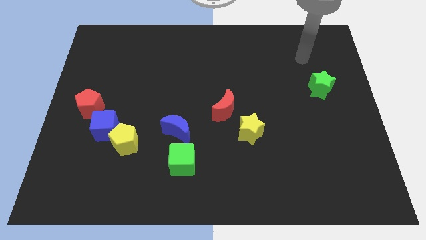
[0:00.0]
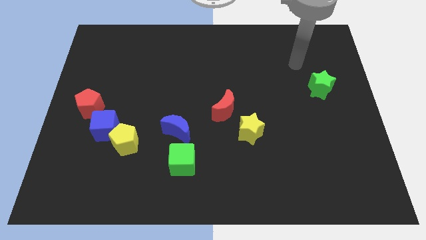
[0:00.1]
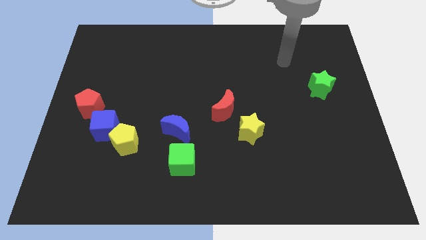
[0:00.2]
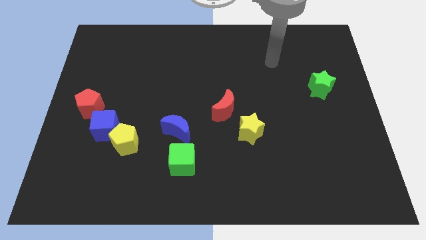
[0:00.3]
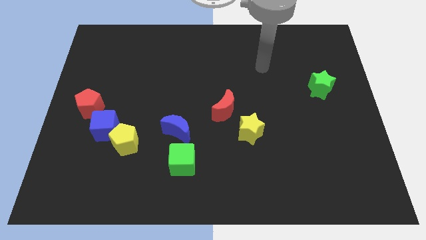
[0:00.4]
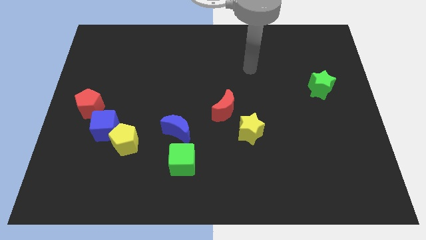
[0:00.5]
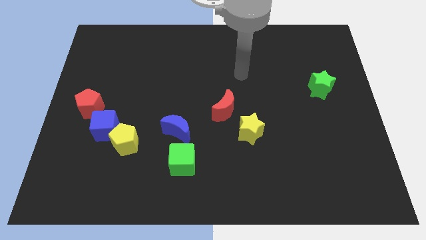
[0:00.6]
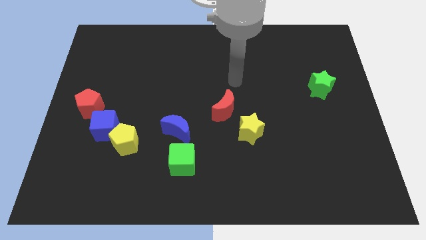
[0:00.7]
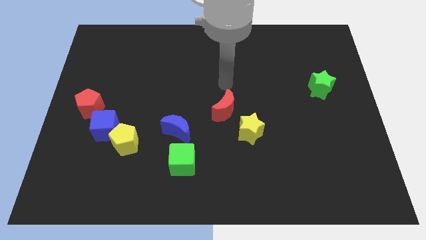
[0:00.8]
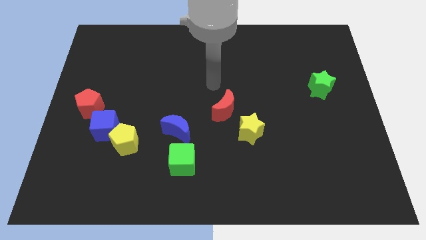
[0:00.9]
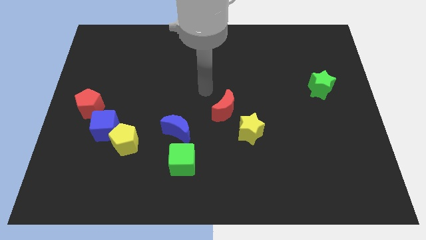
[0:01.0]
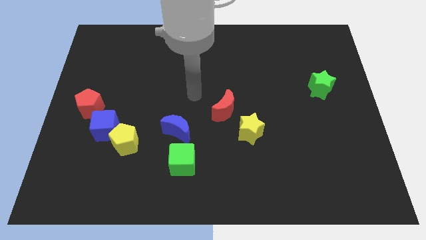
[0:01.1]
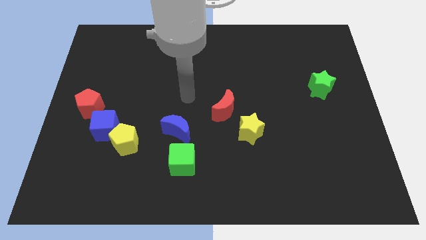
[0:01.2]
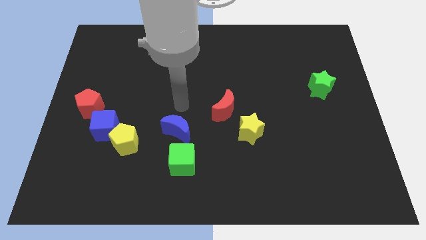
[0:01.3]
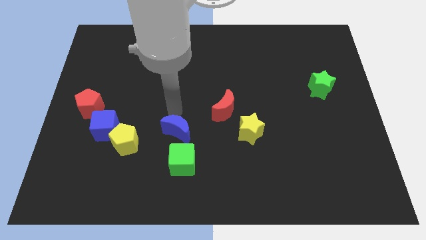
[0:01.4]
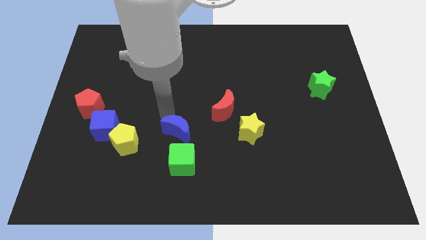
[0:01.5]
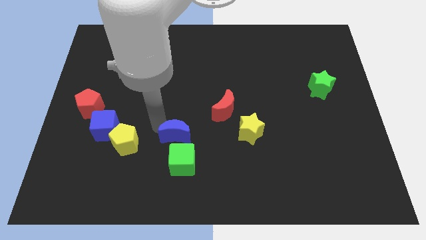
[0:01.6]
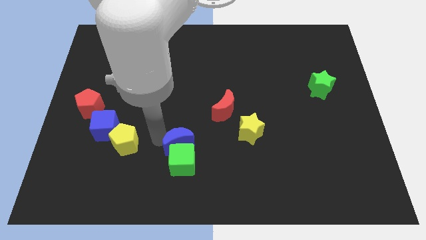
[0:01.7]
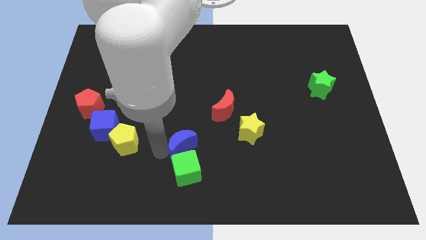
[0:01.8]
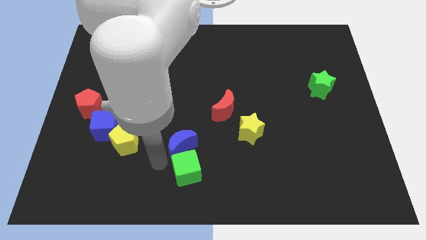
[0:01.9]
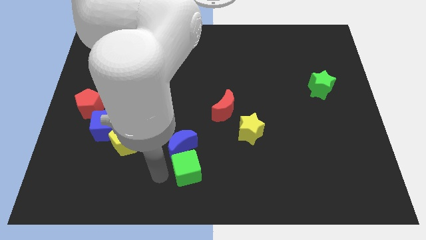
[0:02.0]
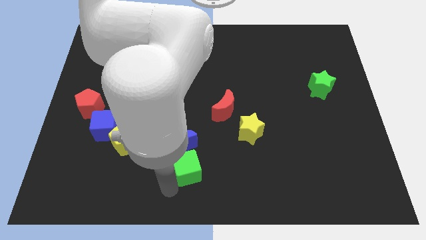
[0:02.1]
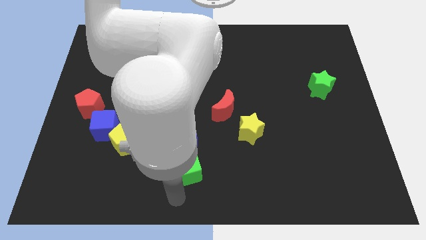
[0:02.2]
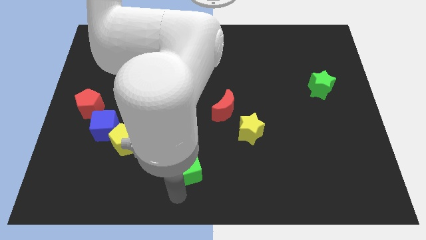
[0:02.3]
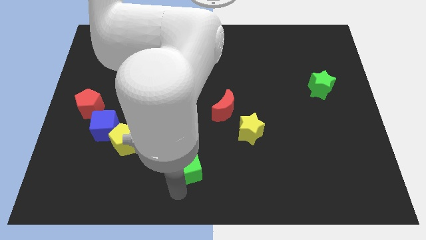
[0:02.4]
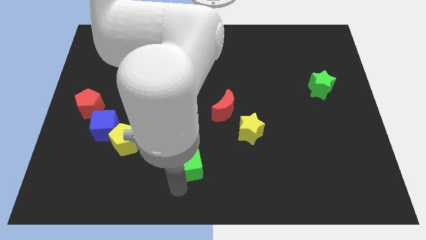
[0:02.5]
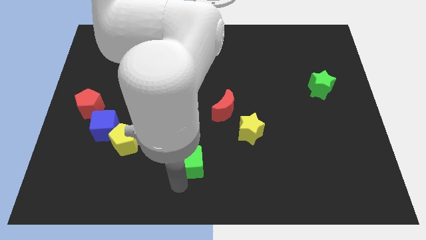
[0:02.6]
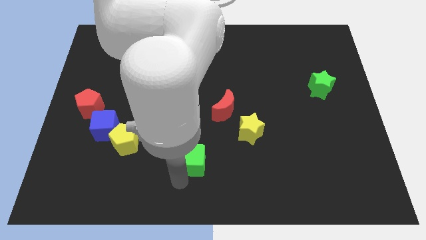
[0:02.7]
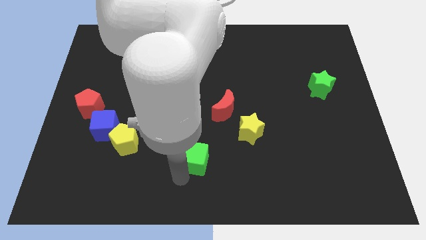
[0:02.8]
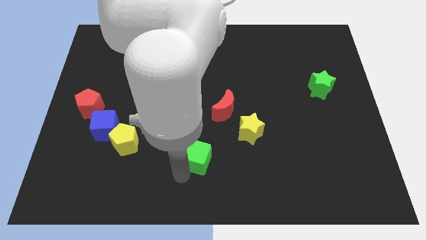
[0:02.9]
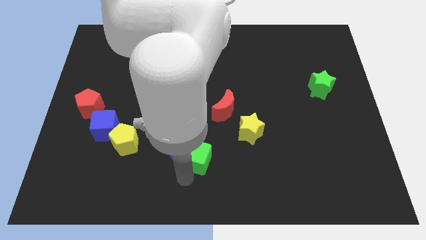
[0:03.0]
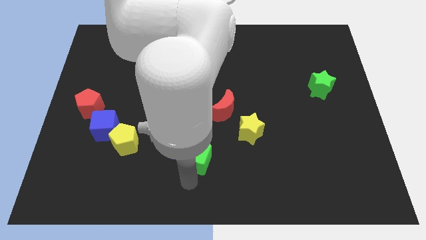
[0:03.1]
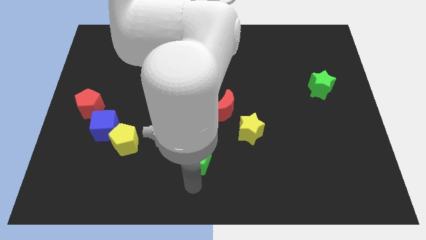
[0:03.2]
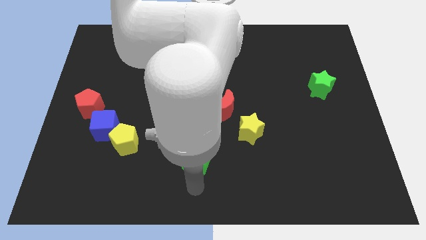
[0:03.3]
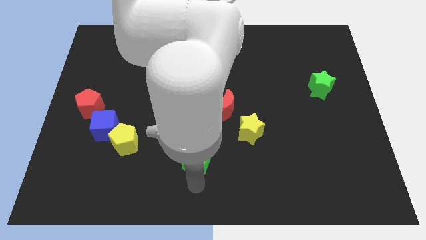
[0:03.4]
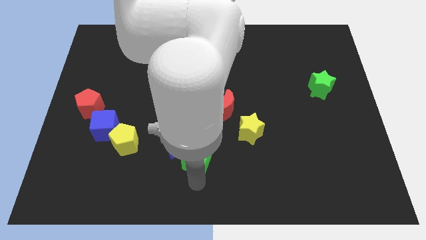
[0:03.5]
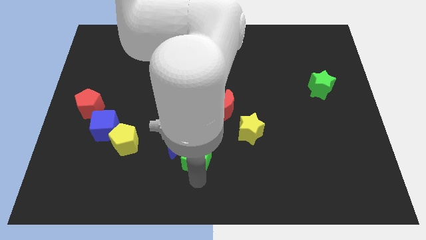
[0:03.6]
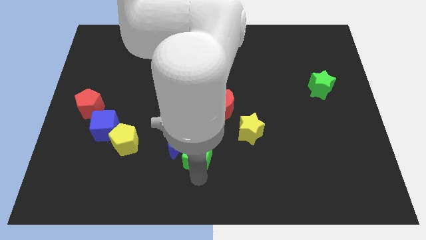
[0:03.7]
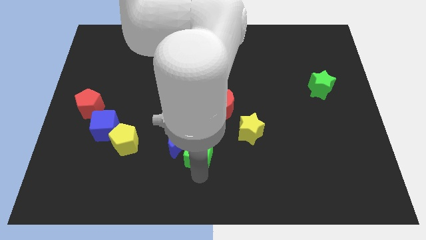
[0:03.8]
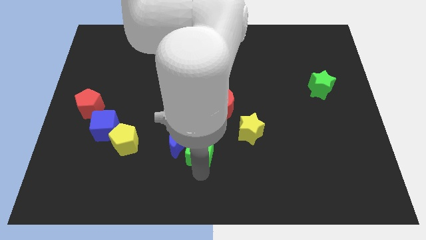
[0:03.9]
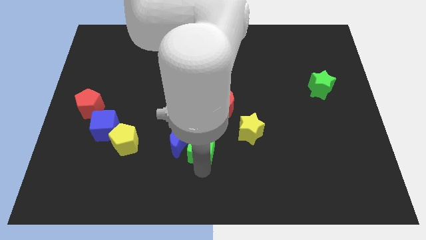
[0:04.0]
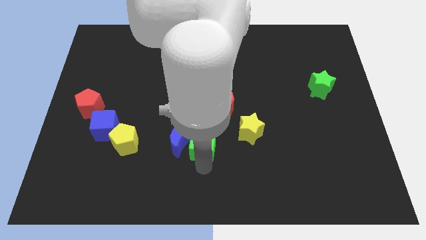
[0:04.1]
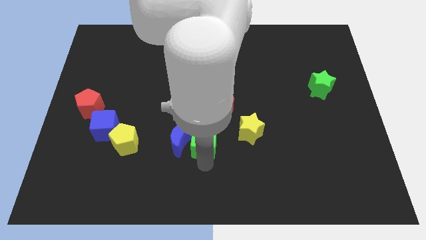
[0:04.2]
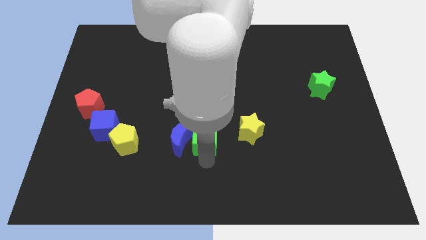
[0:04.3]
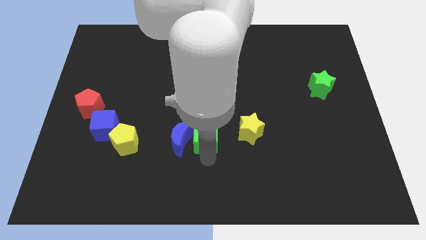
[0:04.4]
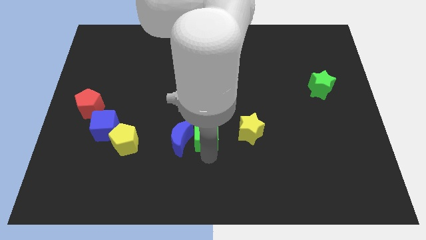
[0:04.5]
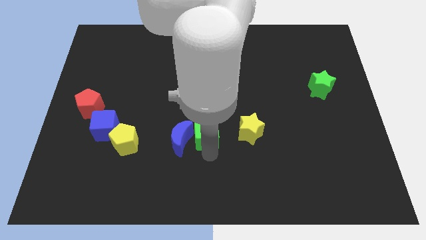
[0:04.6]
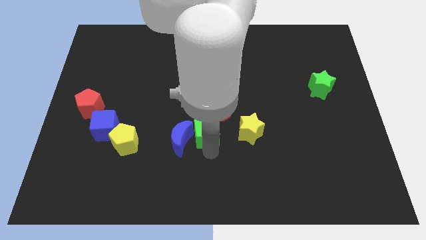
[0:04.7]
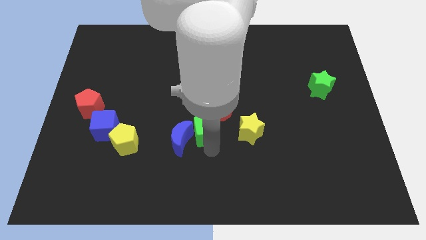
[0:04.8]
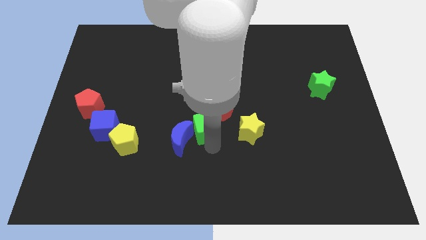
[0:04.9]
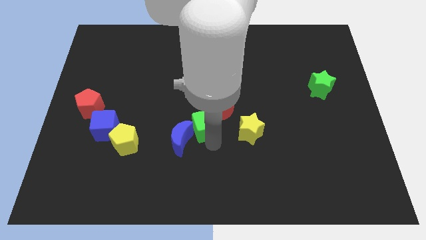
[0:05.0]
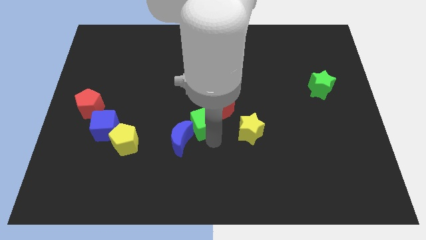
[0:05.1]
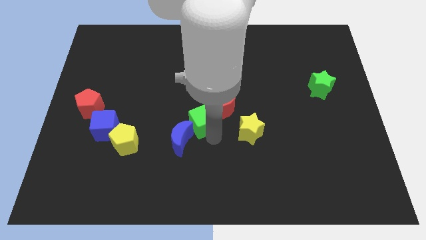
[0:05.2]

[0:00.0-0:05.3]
slide the green cube to the top side of the blue moon

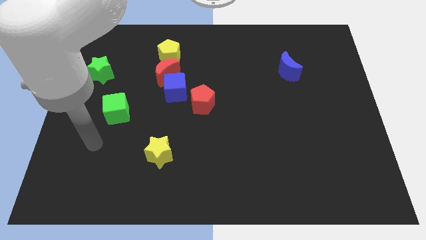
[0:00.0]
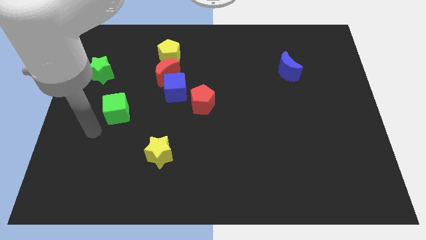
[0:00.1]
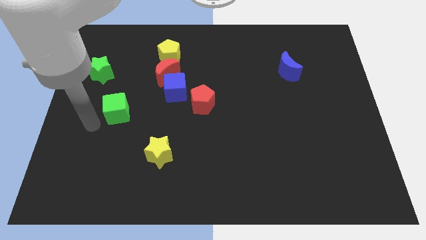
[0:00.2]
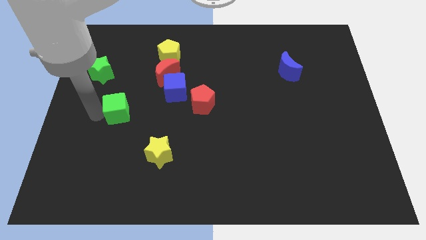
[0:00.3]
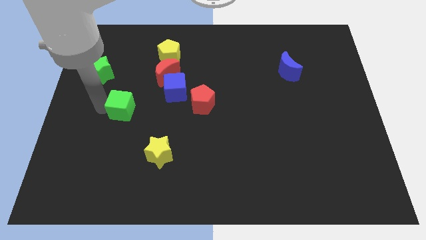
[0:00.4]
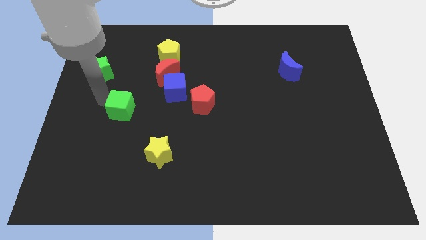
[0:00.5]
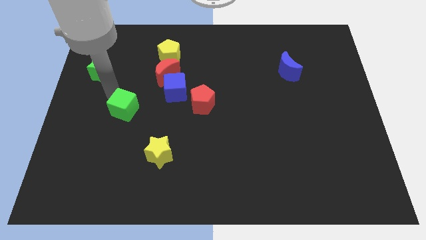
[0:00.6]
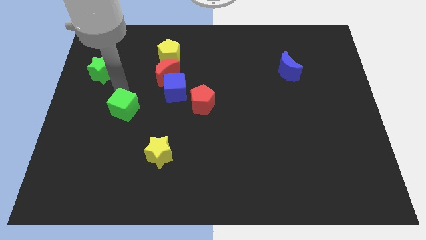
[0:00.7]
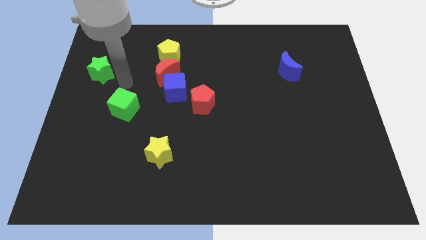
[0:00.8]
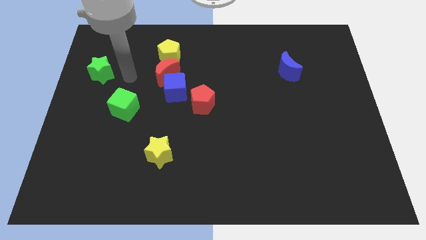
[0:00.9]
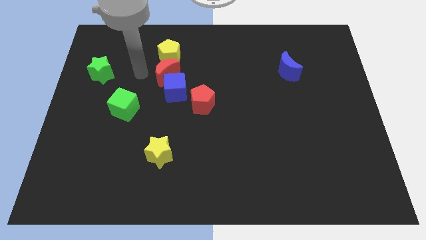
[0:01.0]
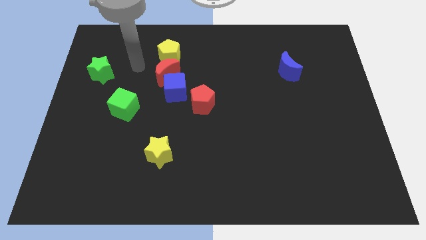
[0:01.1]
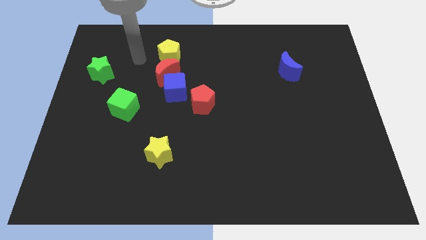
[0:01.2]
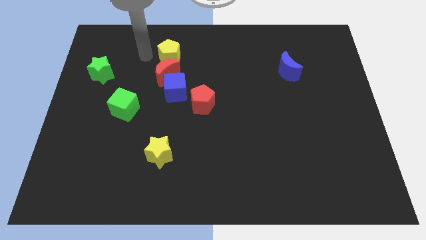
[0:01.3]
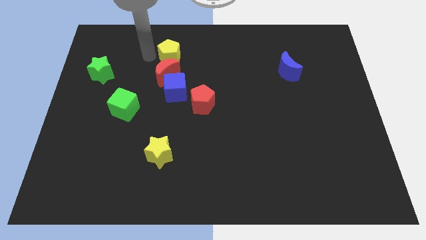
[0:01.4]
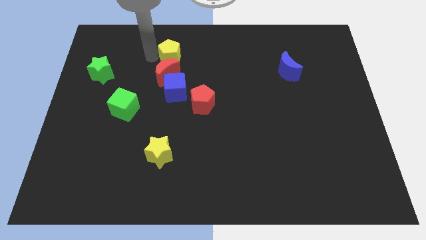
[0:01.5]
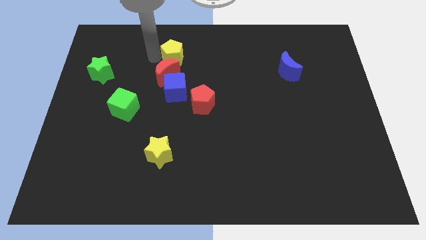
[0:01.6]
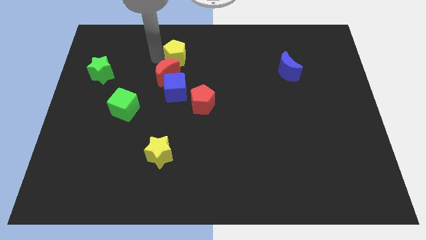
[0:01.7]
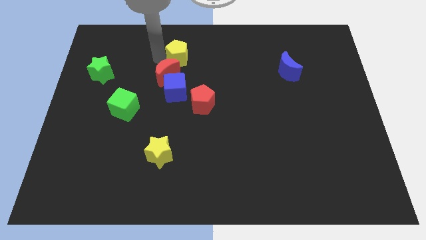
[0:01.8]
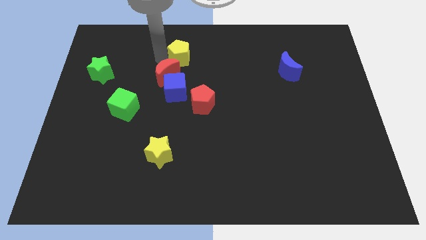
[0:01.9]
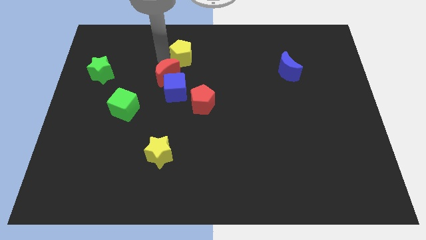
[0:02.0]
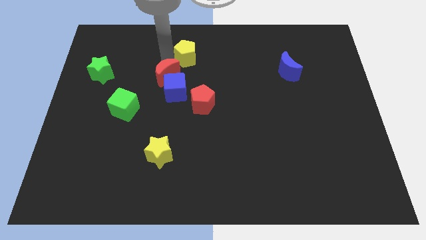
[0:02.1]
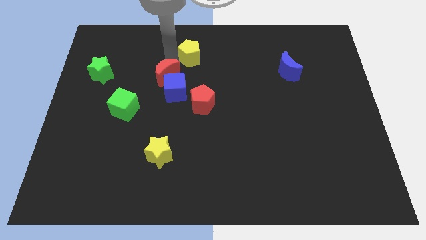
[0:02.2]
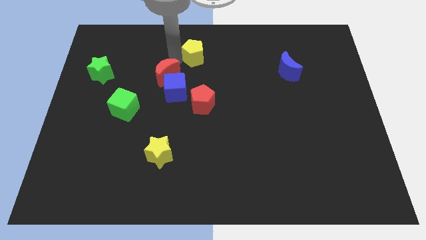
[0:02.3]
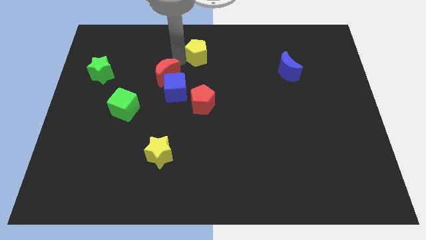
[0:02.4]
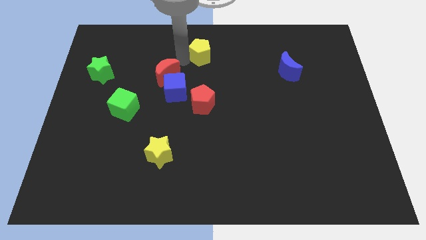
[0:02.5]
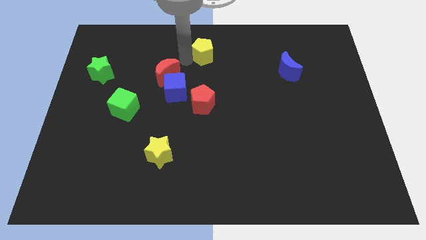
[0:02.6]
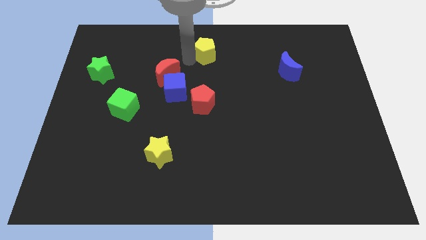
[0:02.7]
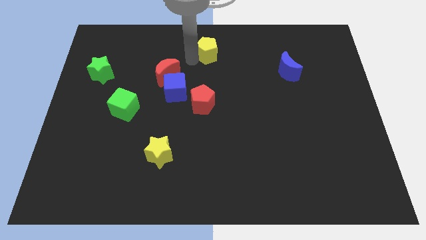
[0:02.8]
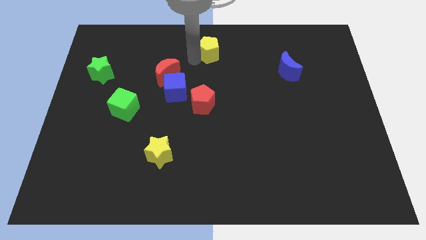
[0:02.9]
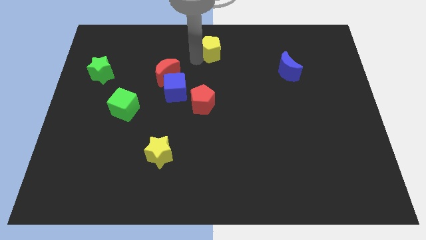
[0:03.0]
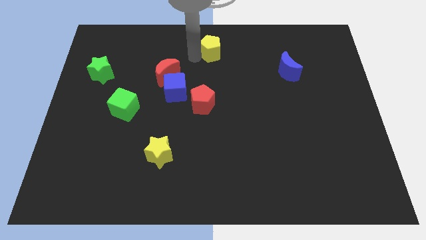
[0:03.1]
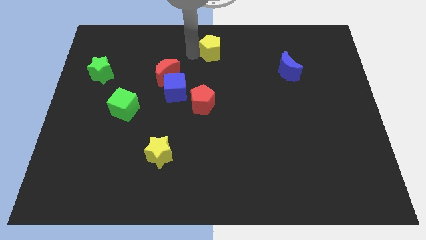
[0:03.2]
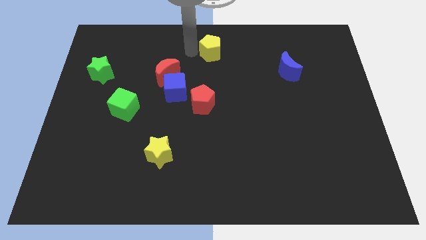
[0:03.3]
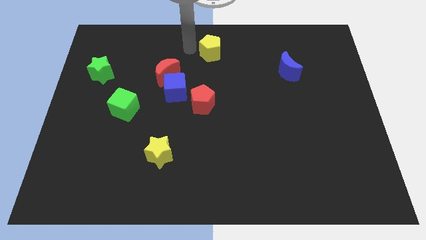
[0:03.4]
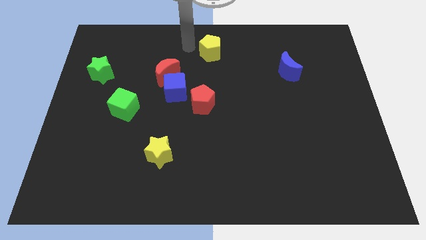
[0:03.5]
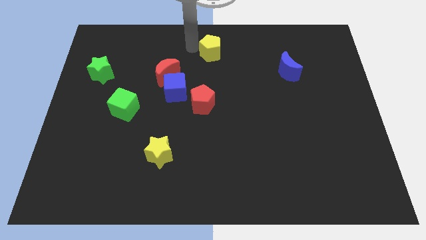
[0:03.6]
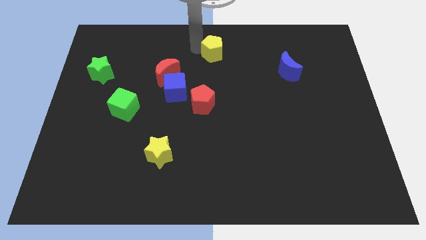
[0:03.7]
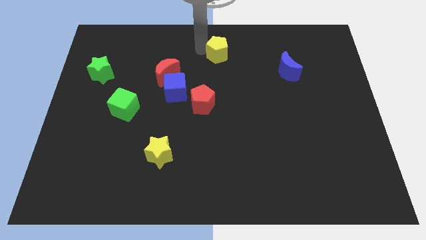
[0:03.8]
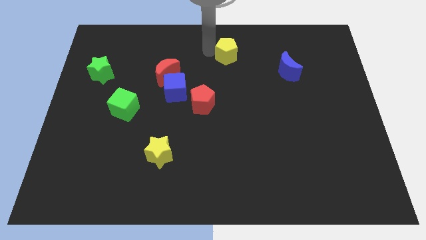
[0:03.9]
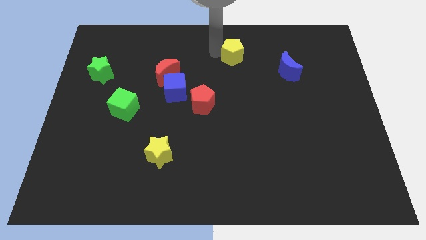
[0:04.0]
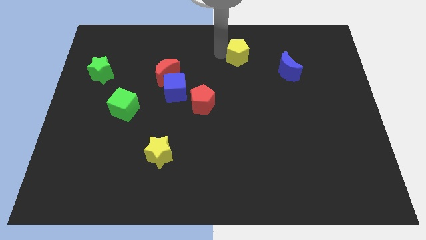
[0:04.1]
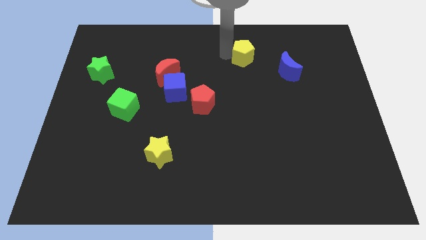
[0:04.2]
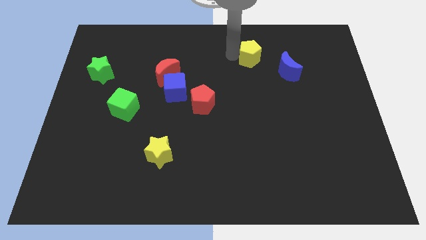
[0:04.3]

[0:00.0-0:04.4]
slide the yellow pentagon diagonally up and to the left of the blue moon
